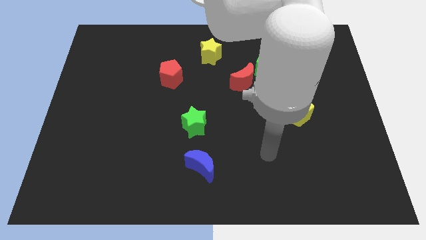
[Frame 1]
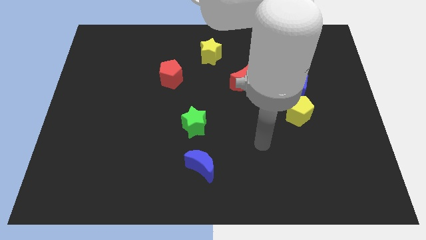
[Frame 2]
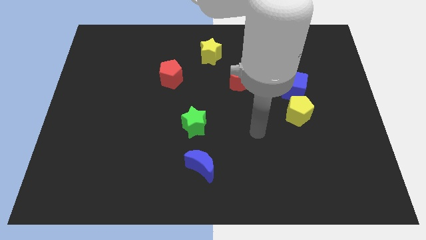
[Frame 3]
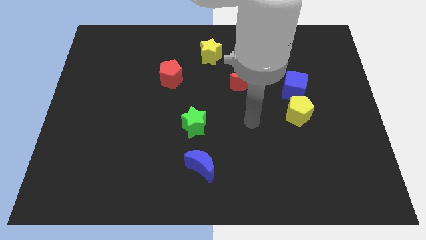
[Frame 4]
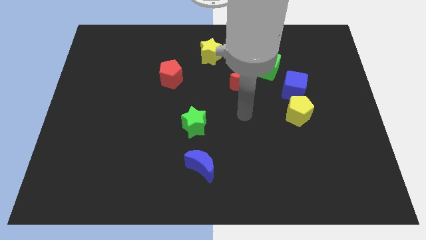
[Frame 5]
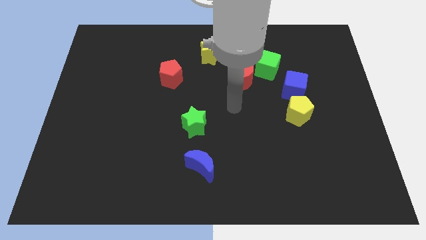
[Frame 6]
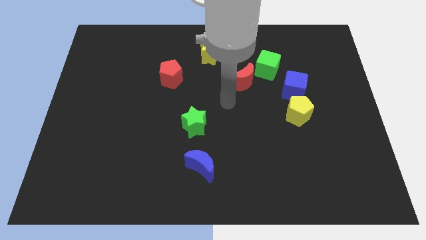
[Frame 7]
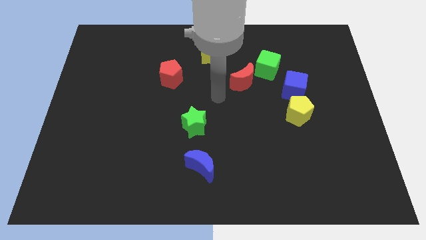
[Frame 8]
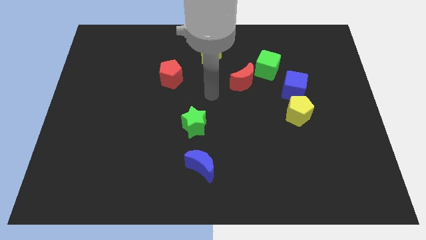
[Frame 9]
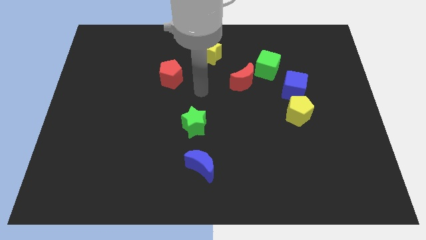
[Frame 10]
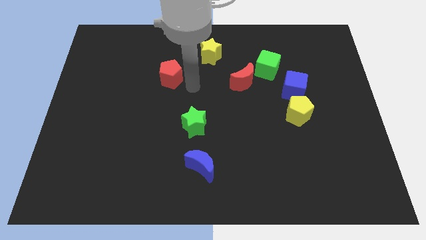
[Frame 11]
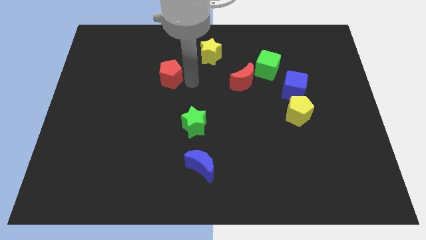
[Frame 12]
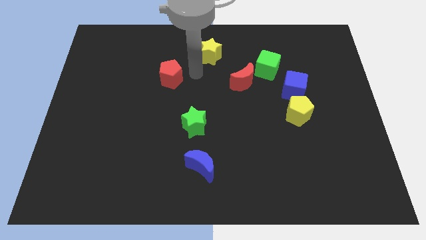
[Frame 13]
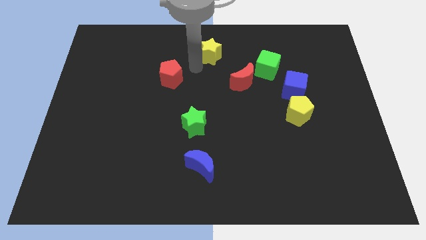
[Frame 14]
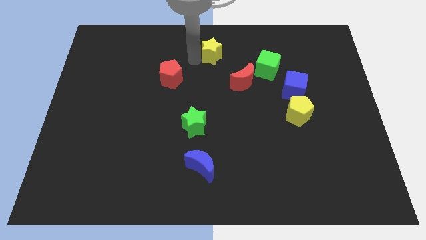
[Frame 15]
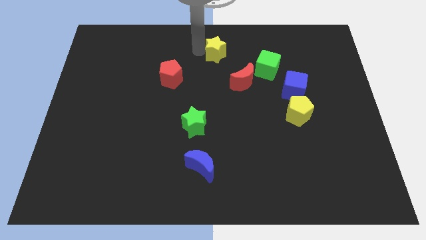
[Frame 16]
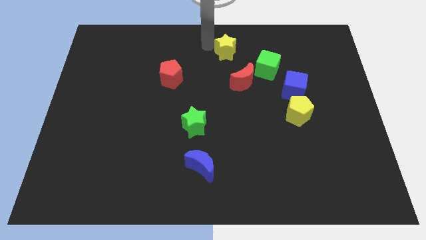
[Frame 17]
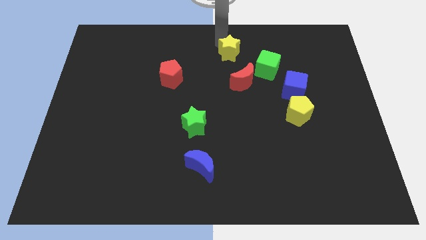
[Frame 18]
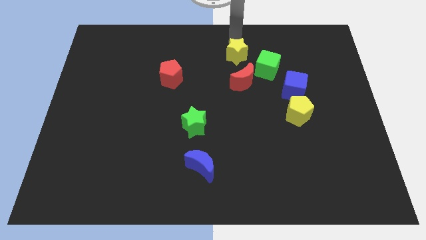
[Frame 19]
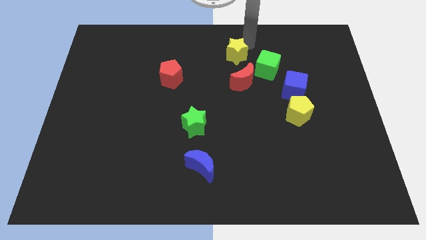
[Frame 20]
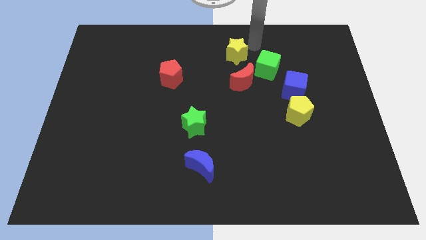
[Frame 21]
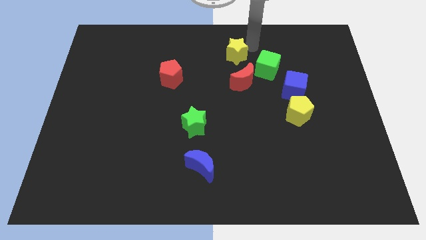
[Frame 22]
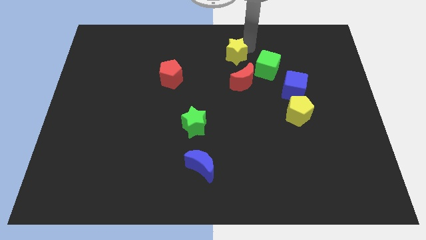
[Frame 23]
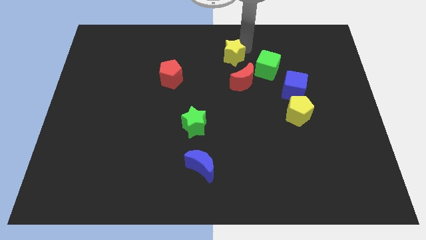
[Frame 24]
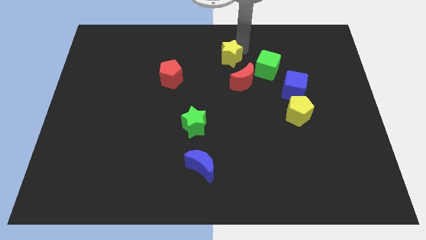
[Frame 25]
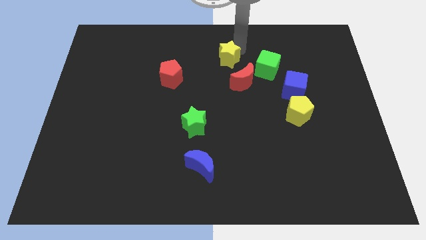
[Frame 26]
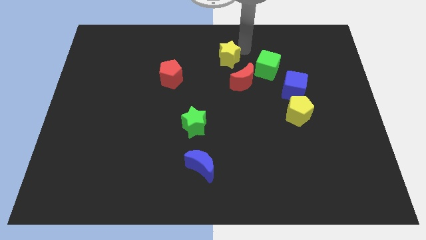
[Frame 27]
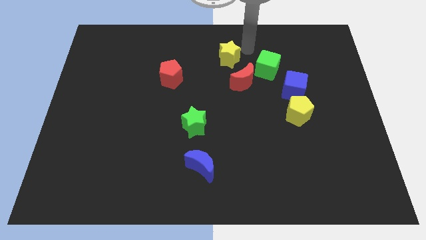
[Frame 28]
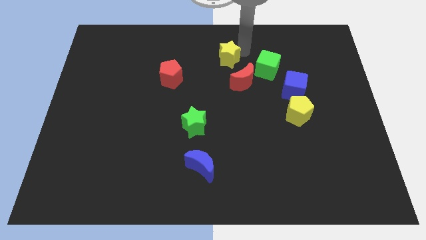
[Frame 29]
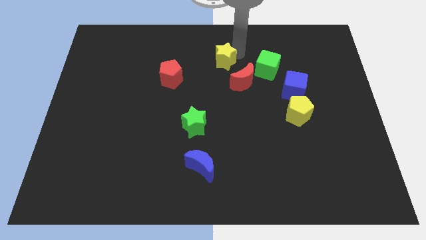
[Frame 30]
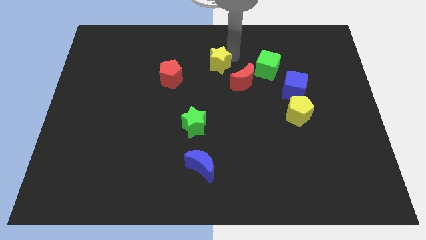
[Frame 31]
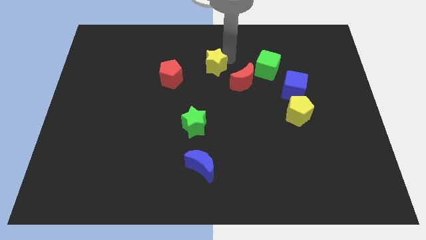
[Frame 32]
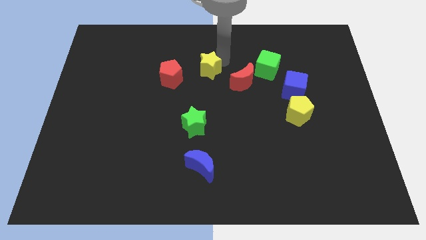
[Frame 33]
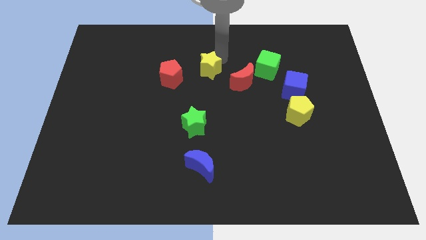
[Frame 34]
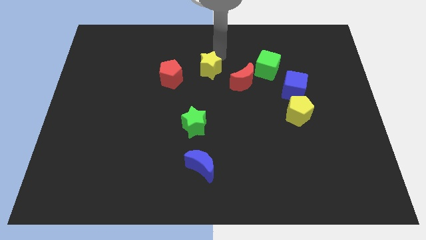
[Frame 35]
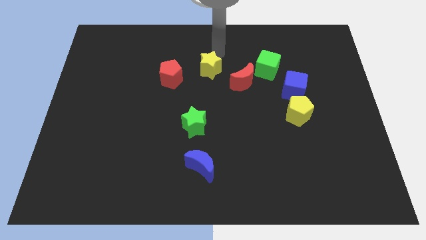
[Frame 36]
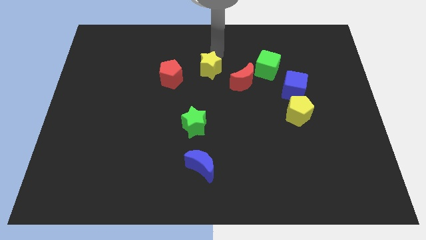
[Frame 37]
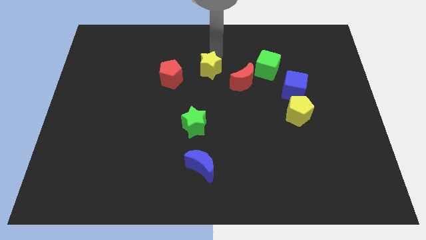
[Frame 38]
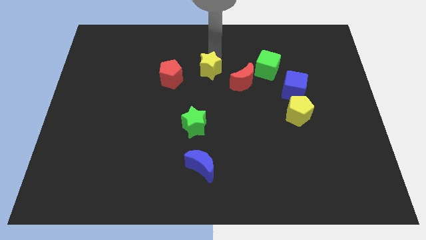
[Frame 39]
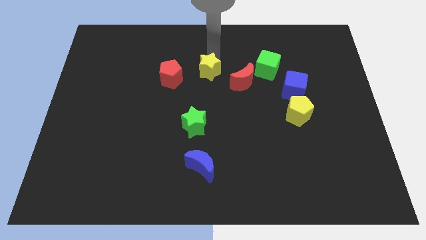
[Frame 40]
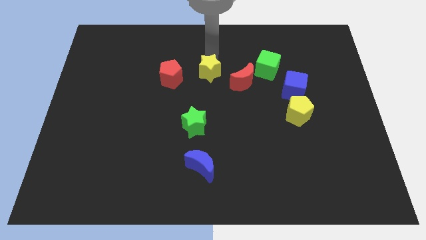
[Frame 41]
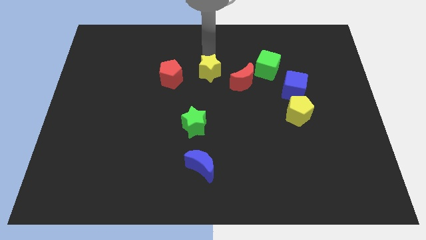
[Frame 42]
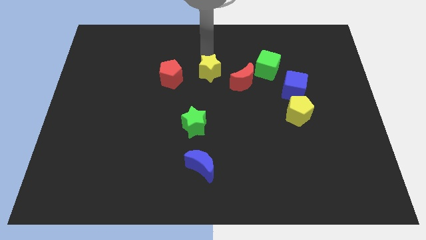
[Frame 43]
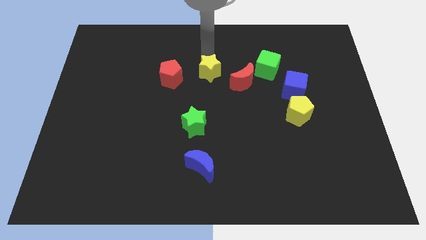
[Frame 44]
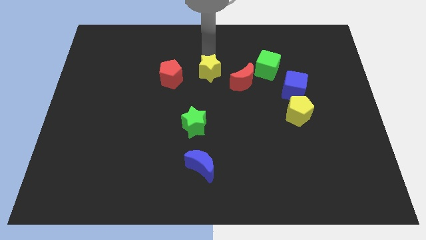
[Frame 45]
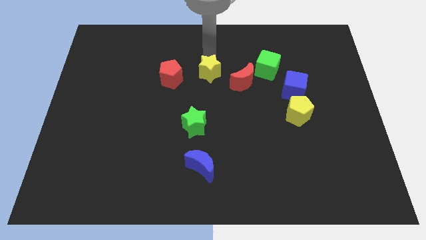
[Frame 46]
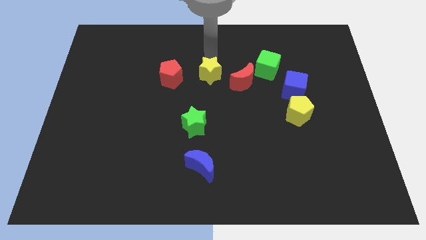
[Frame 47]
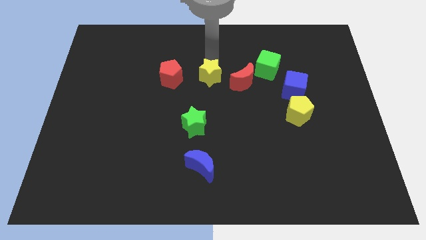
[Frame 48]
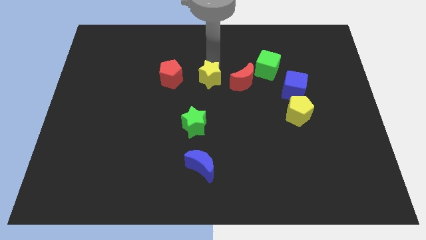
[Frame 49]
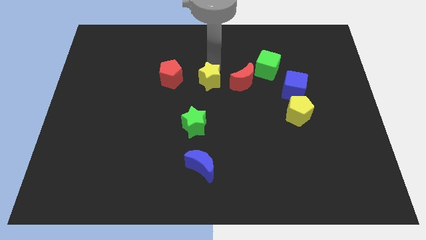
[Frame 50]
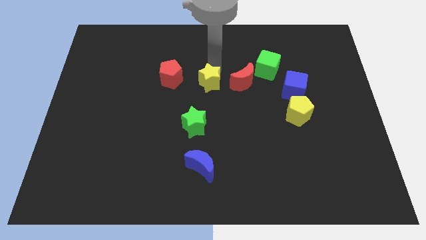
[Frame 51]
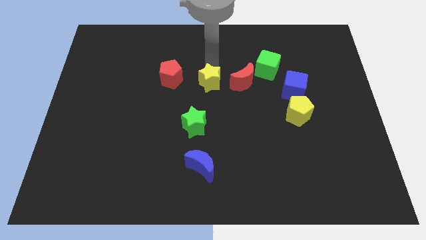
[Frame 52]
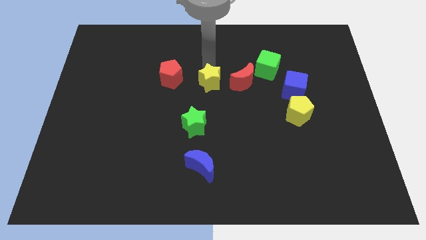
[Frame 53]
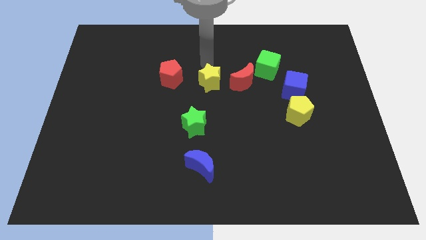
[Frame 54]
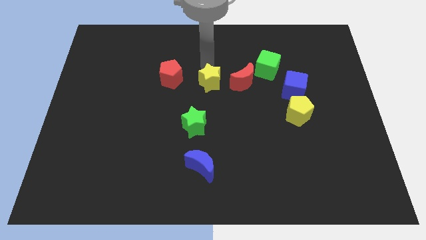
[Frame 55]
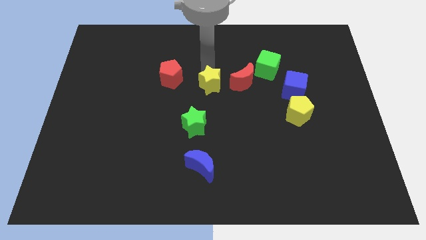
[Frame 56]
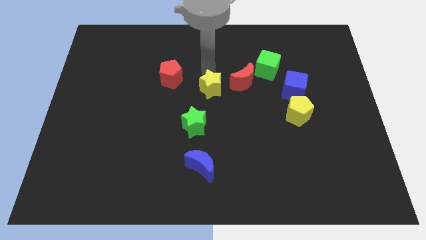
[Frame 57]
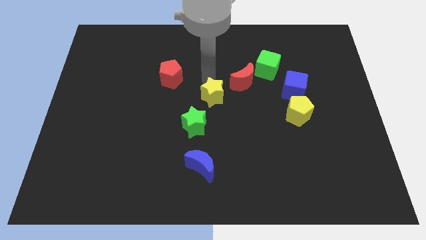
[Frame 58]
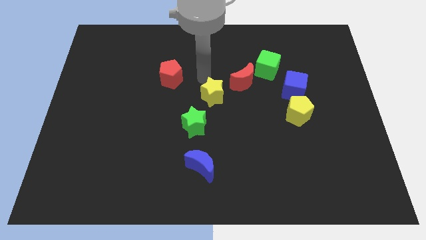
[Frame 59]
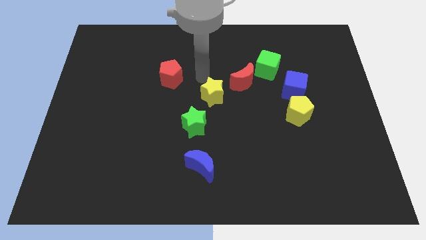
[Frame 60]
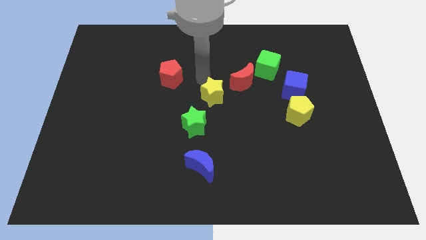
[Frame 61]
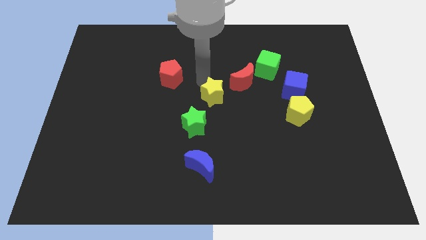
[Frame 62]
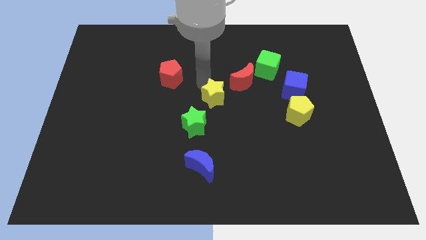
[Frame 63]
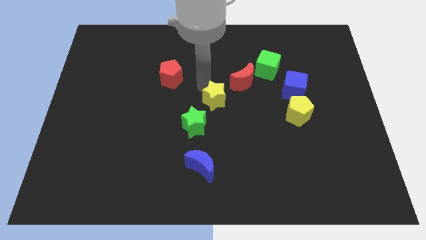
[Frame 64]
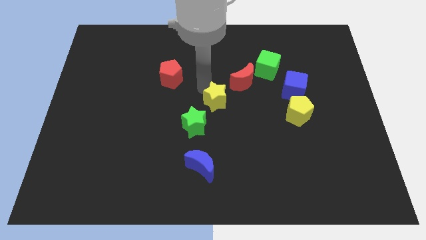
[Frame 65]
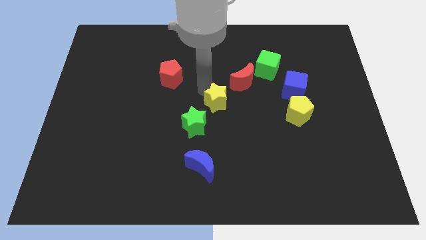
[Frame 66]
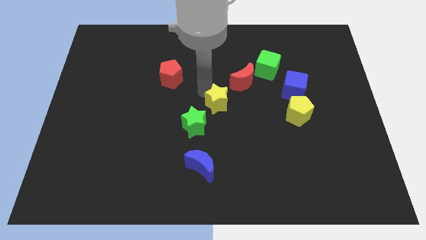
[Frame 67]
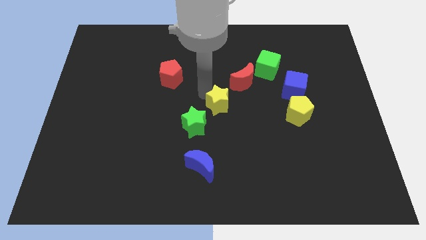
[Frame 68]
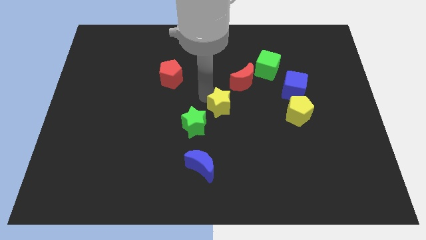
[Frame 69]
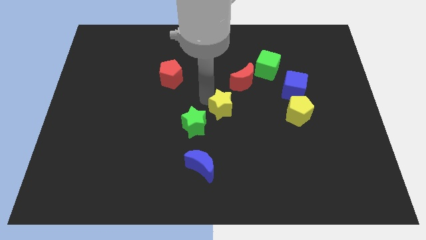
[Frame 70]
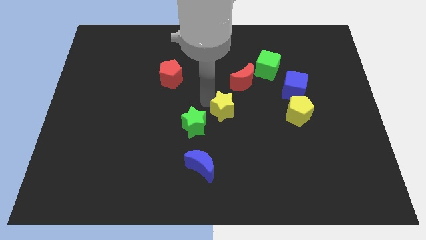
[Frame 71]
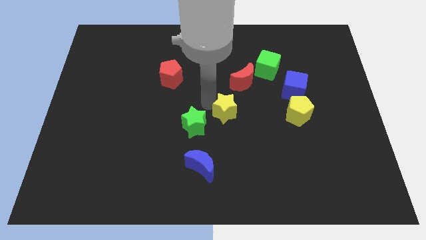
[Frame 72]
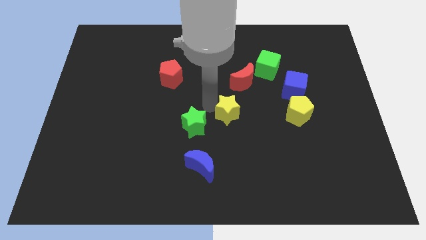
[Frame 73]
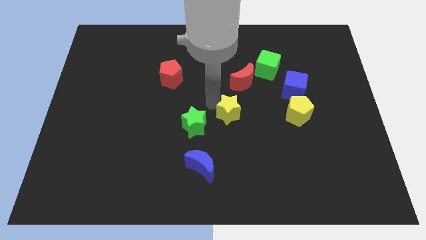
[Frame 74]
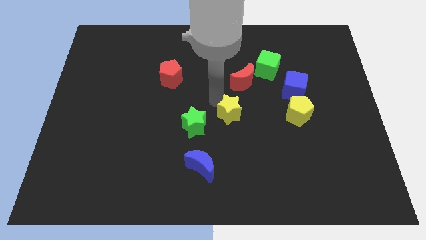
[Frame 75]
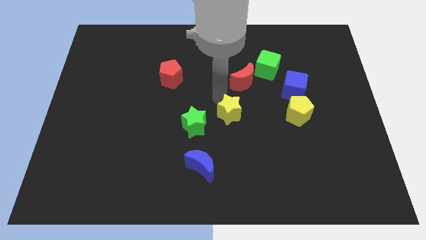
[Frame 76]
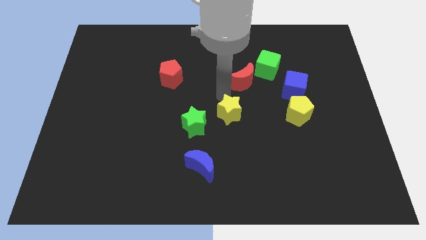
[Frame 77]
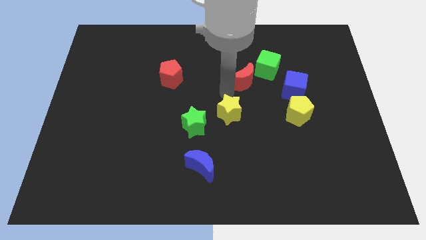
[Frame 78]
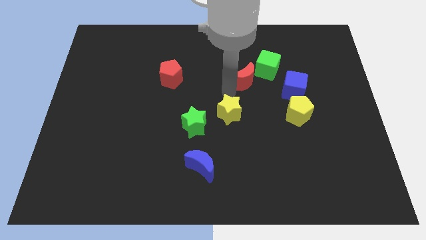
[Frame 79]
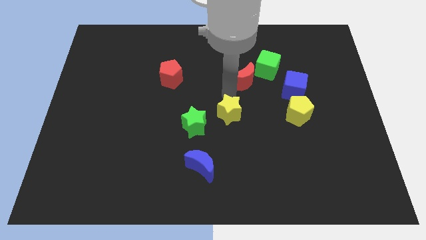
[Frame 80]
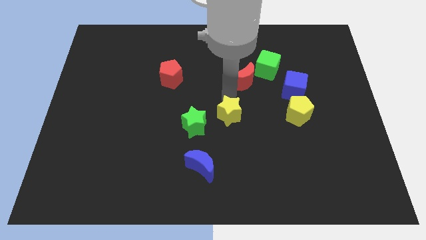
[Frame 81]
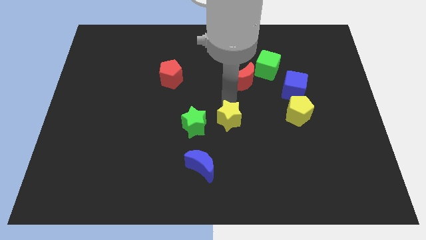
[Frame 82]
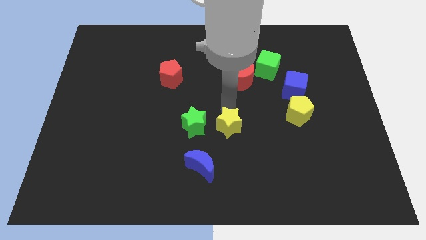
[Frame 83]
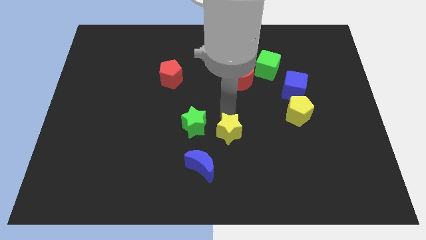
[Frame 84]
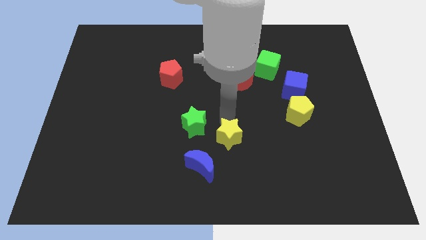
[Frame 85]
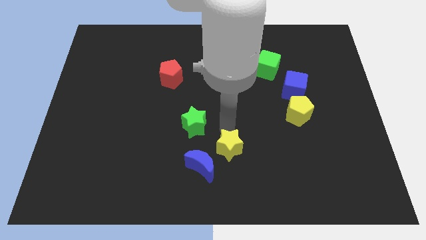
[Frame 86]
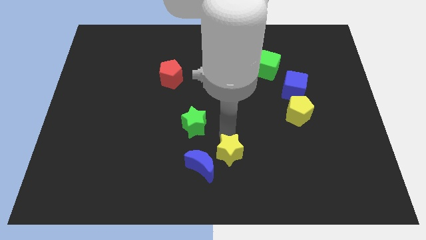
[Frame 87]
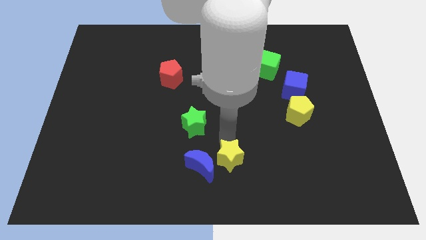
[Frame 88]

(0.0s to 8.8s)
put the yellow star to the bottom side
